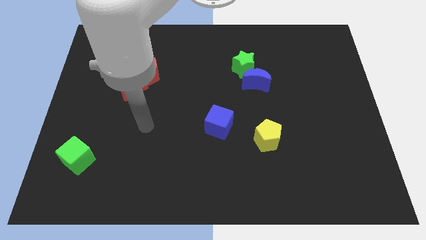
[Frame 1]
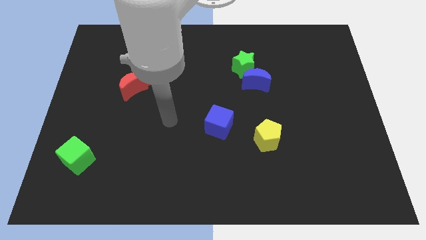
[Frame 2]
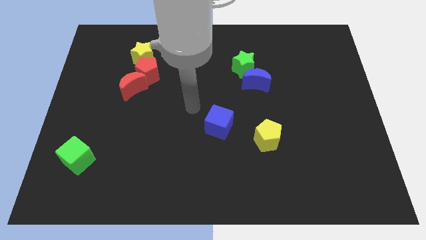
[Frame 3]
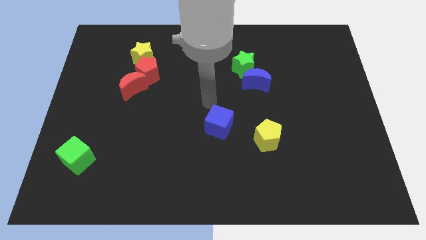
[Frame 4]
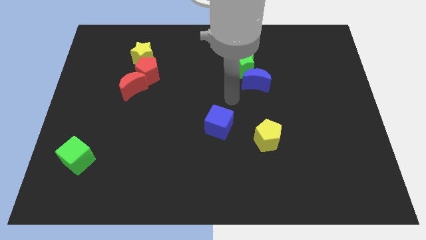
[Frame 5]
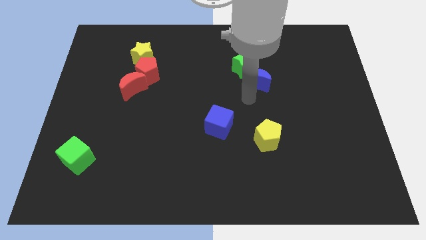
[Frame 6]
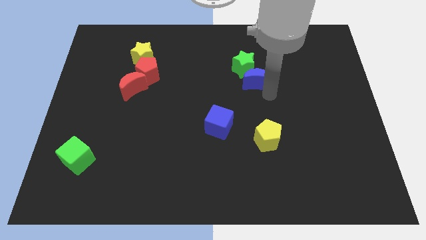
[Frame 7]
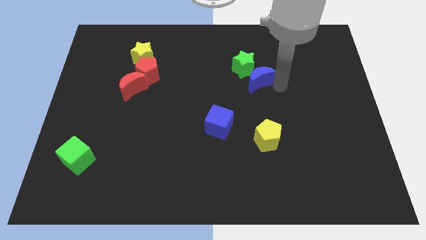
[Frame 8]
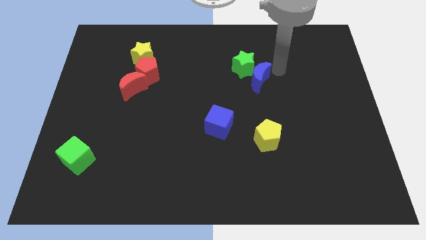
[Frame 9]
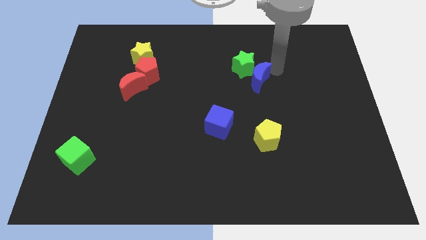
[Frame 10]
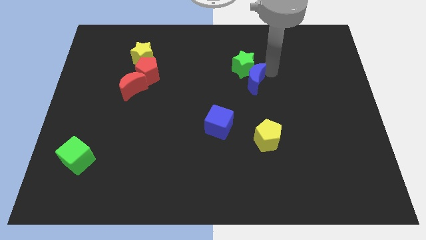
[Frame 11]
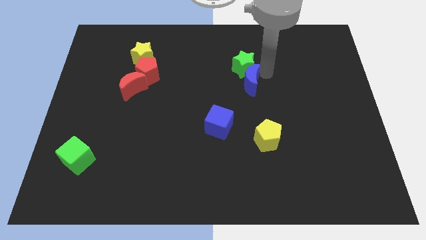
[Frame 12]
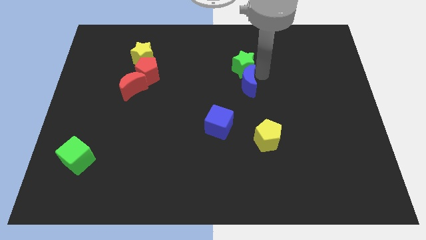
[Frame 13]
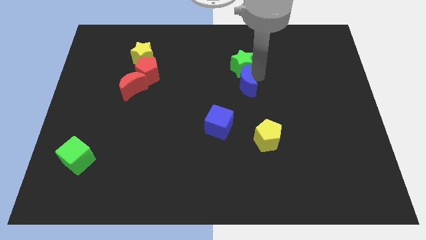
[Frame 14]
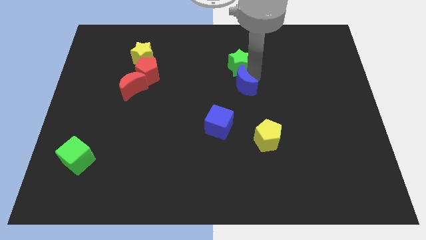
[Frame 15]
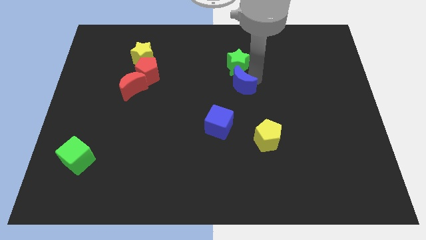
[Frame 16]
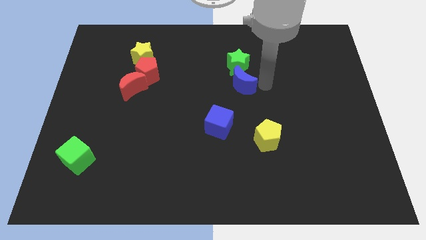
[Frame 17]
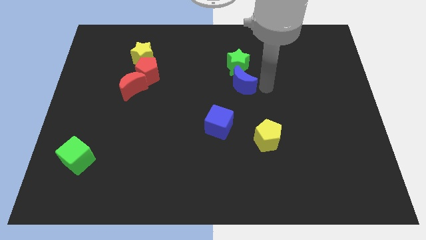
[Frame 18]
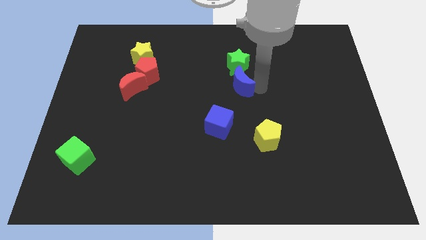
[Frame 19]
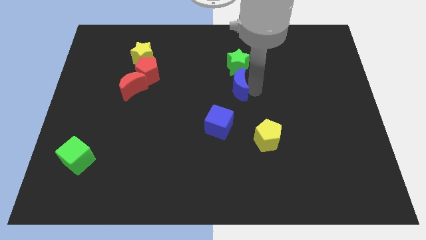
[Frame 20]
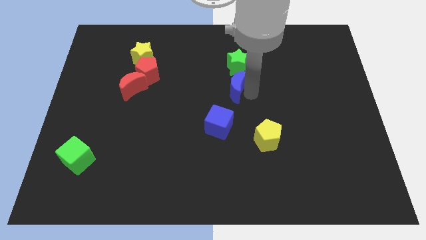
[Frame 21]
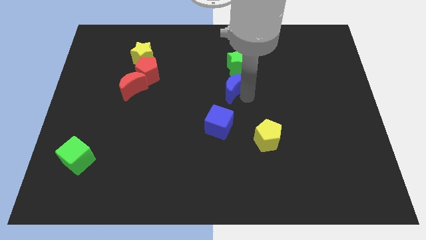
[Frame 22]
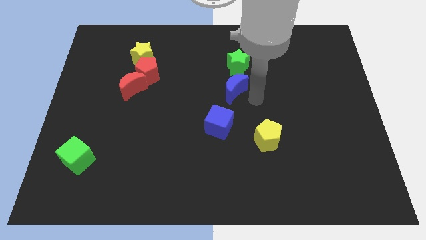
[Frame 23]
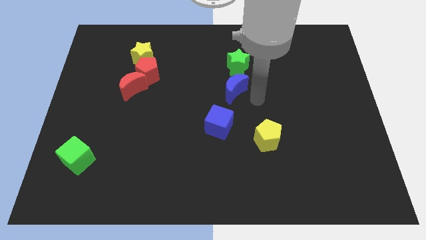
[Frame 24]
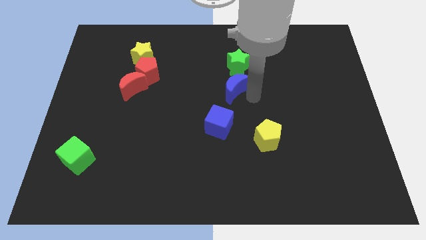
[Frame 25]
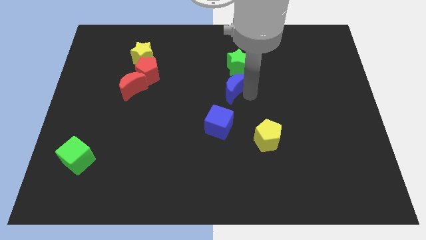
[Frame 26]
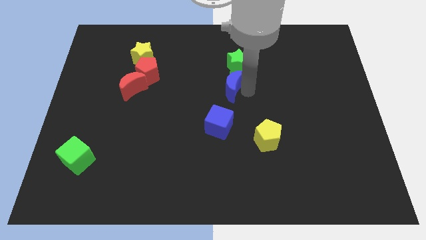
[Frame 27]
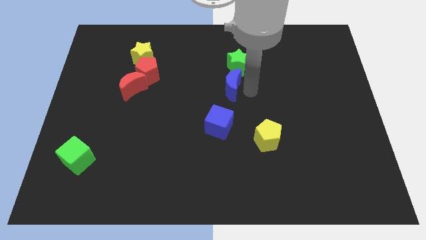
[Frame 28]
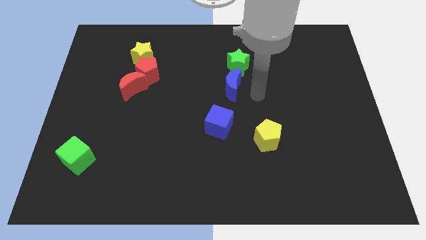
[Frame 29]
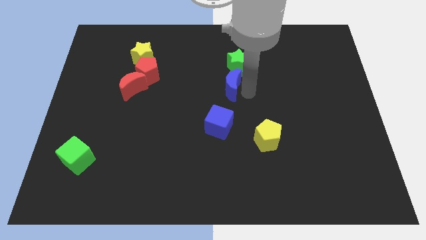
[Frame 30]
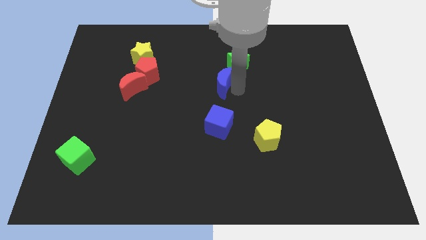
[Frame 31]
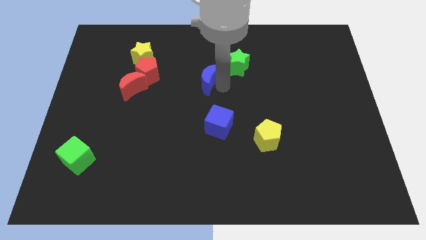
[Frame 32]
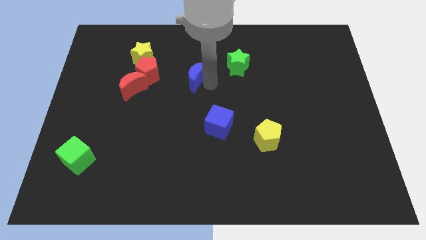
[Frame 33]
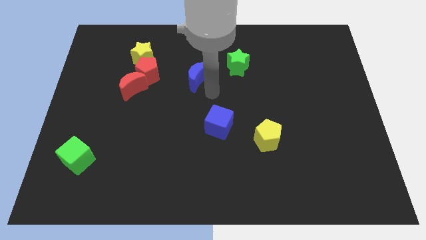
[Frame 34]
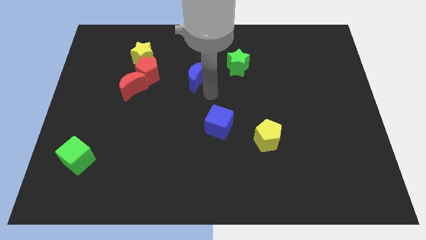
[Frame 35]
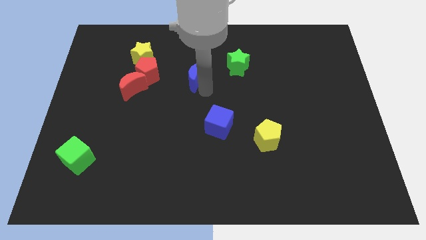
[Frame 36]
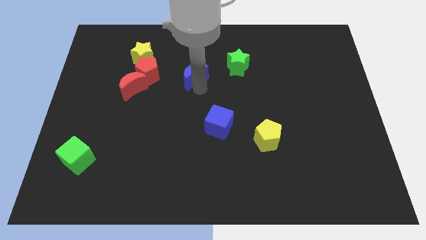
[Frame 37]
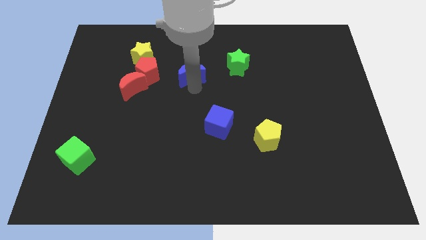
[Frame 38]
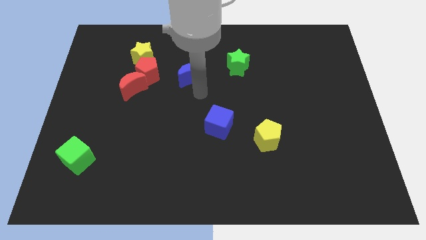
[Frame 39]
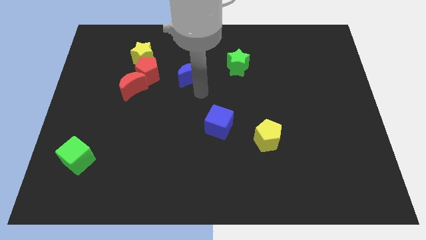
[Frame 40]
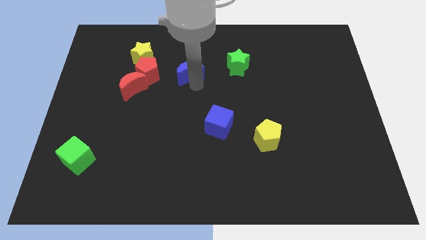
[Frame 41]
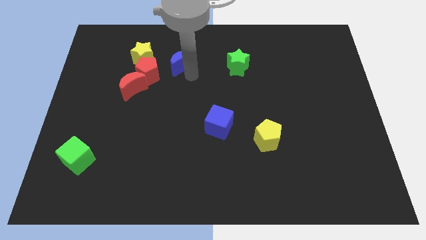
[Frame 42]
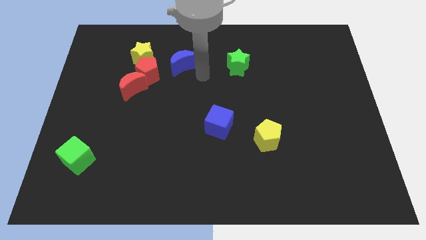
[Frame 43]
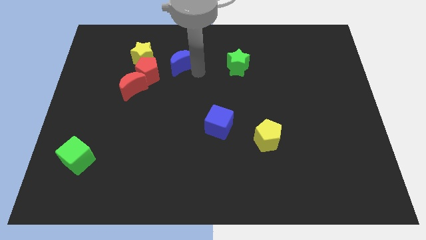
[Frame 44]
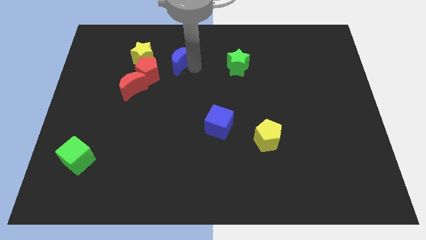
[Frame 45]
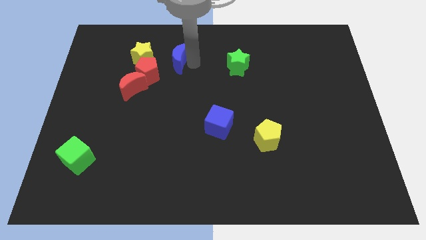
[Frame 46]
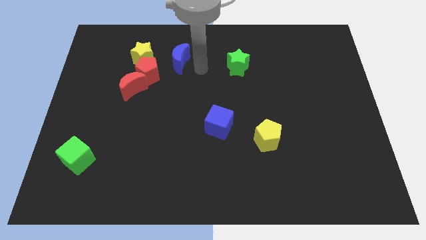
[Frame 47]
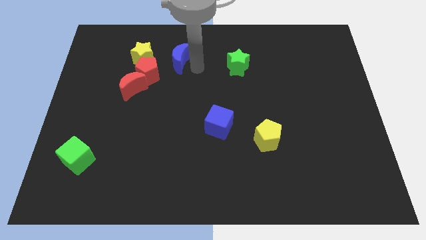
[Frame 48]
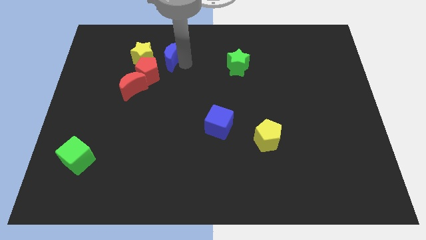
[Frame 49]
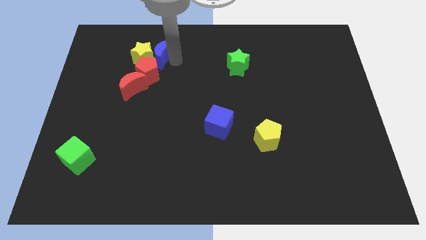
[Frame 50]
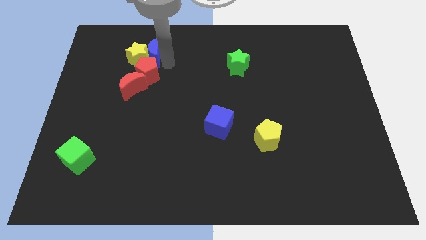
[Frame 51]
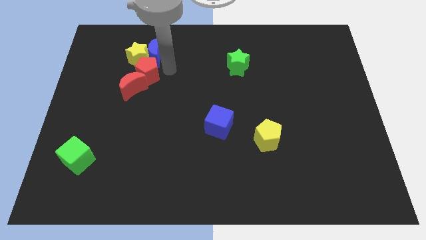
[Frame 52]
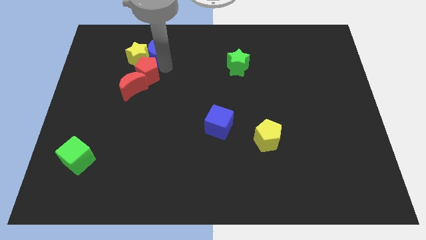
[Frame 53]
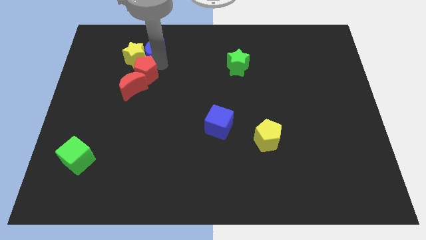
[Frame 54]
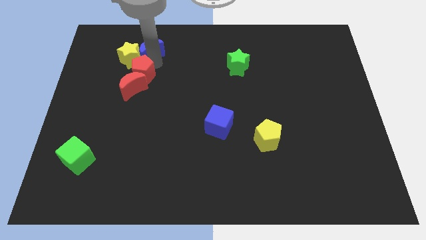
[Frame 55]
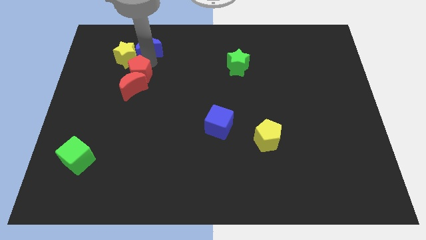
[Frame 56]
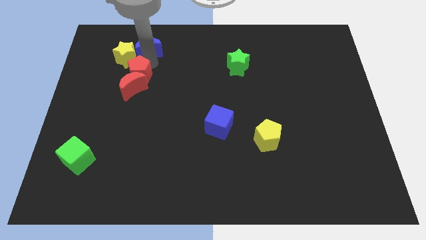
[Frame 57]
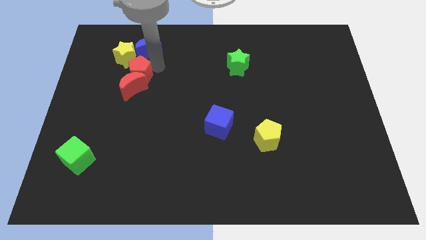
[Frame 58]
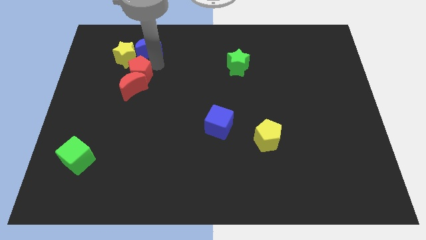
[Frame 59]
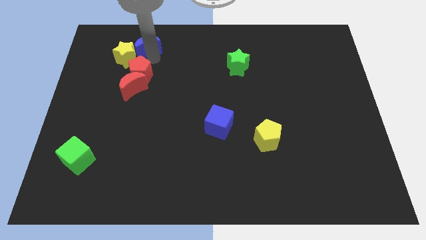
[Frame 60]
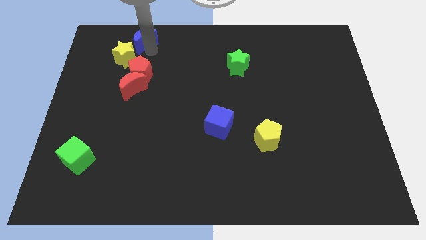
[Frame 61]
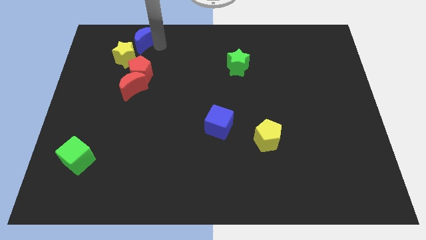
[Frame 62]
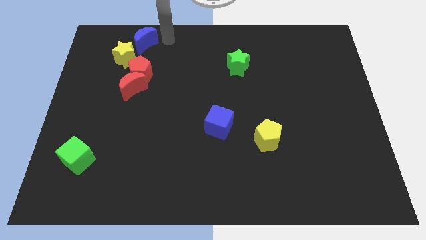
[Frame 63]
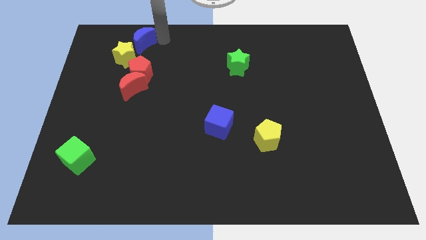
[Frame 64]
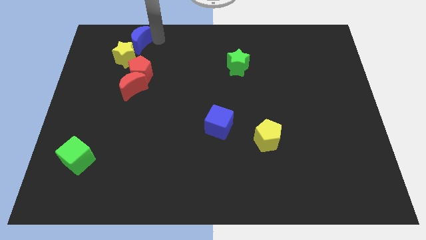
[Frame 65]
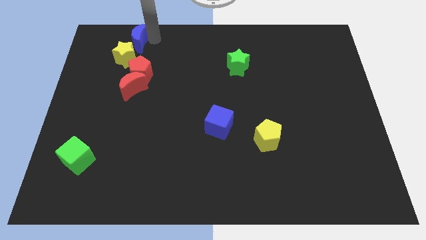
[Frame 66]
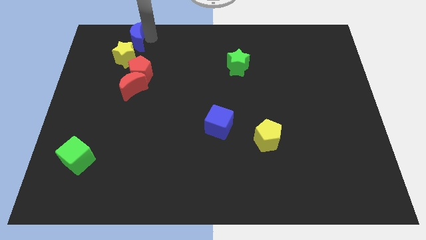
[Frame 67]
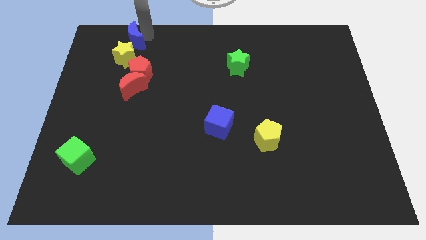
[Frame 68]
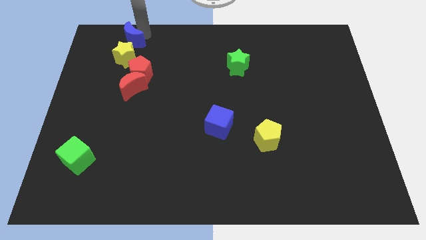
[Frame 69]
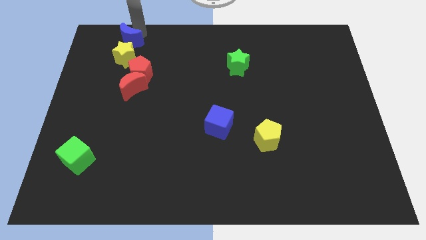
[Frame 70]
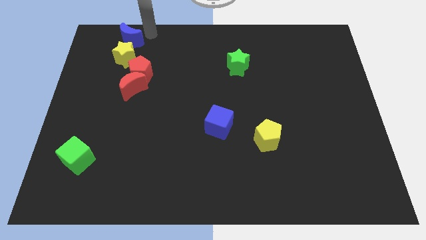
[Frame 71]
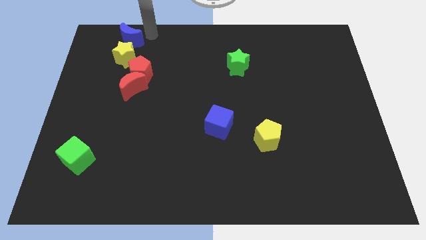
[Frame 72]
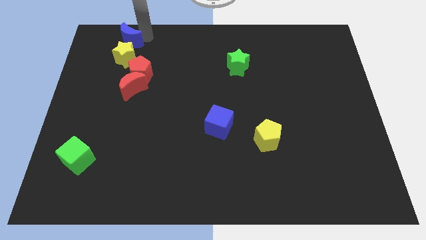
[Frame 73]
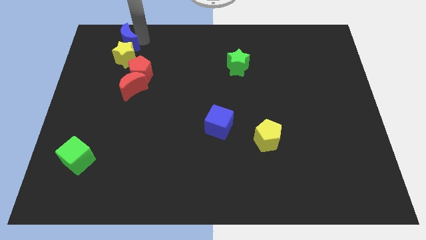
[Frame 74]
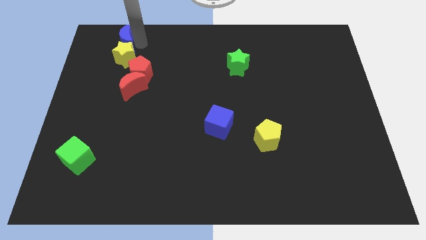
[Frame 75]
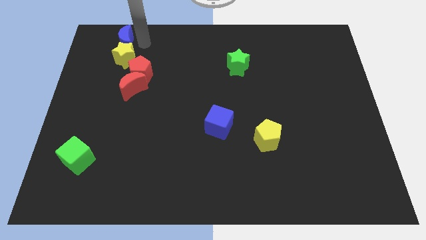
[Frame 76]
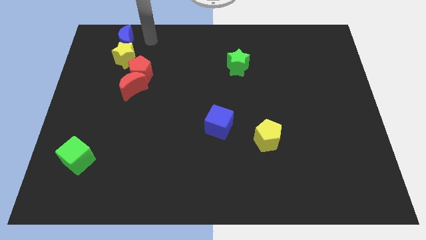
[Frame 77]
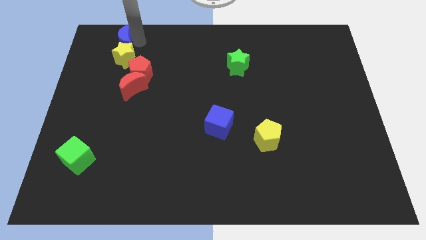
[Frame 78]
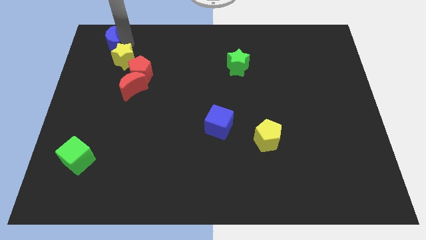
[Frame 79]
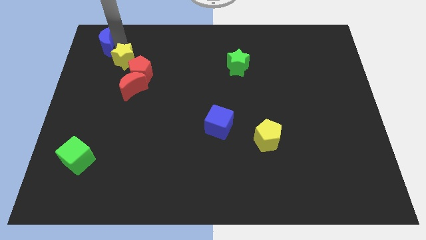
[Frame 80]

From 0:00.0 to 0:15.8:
push the blue moon to the top left
